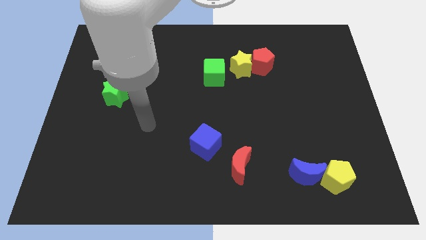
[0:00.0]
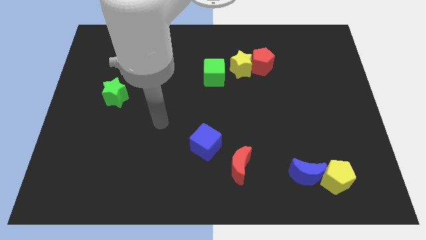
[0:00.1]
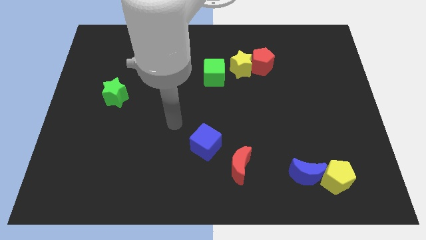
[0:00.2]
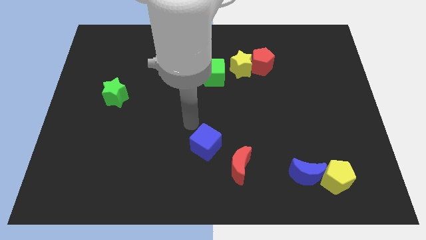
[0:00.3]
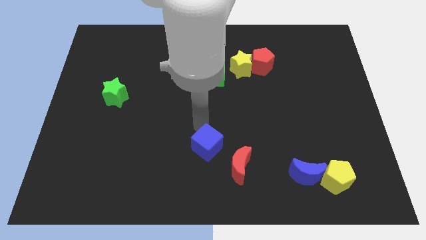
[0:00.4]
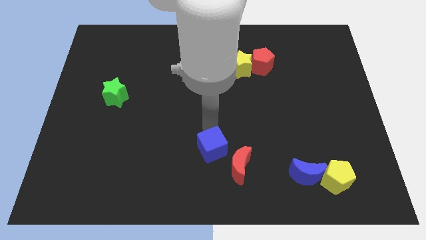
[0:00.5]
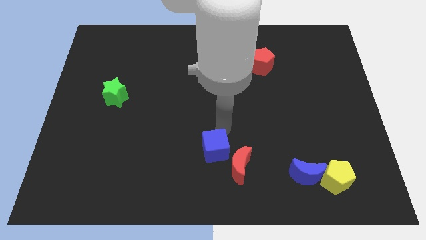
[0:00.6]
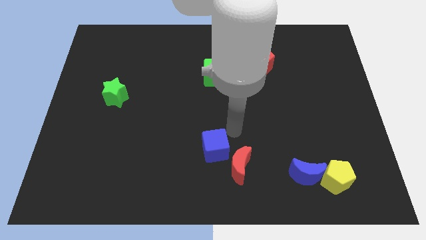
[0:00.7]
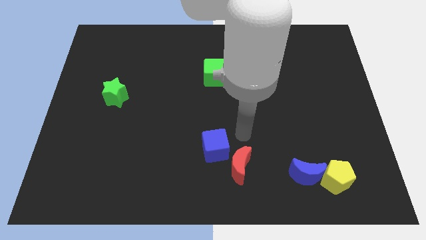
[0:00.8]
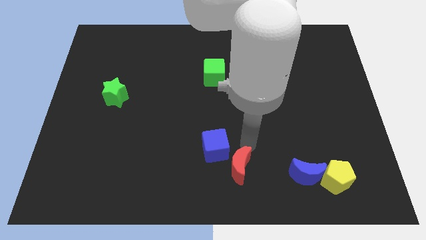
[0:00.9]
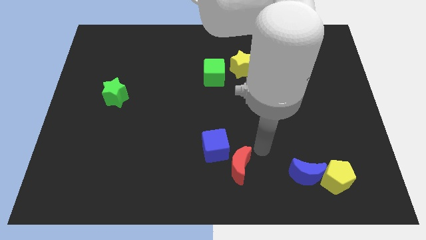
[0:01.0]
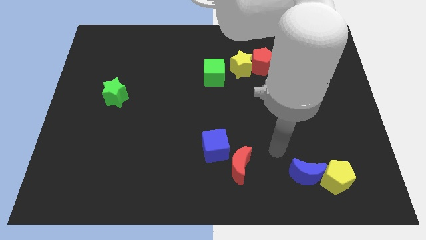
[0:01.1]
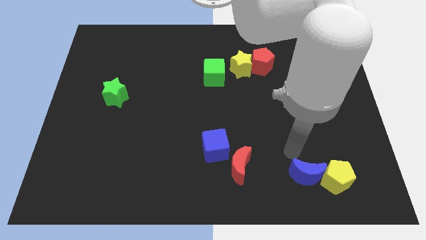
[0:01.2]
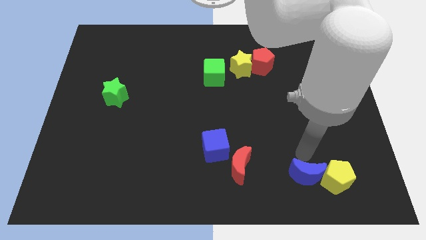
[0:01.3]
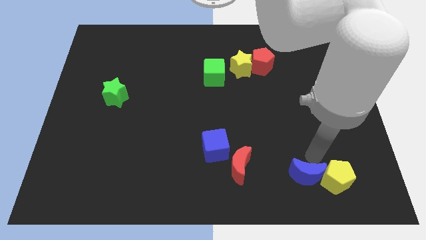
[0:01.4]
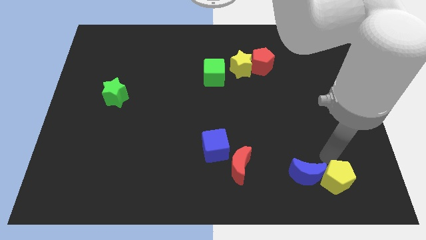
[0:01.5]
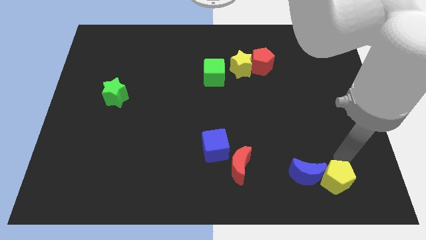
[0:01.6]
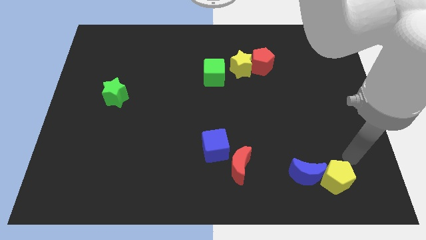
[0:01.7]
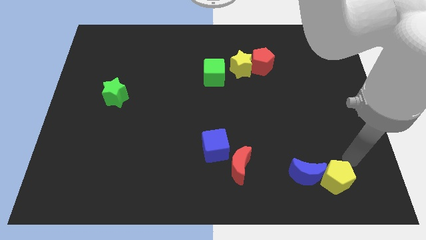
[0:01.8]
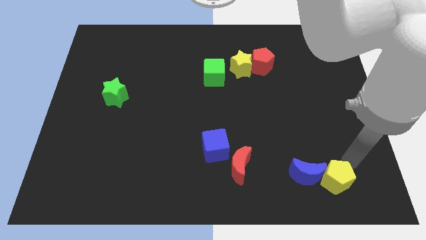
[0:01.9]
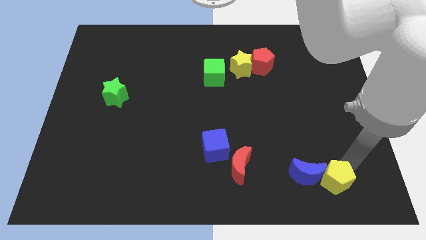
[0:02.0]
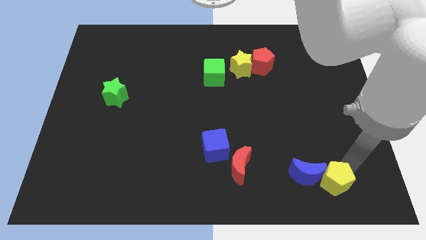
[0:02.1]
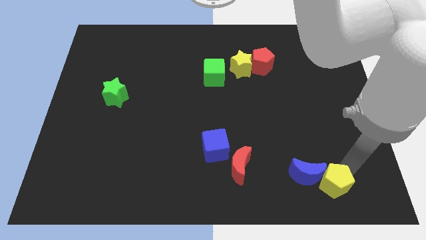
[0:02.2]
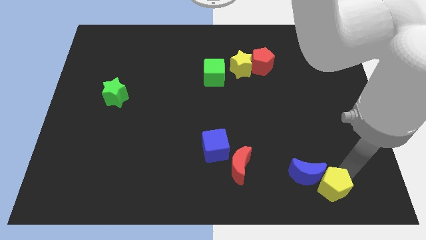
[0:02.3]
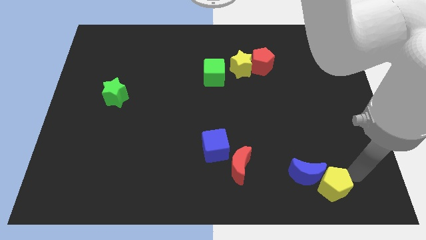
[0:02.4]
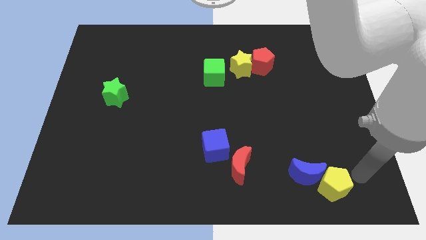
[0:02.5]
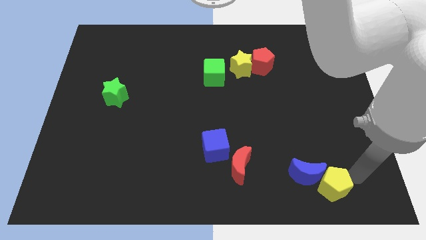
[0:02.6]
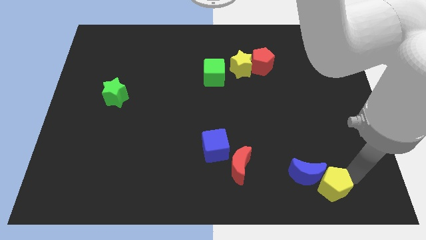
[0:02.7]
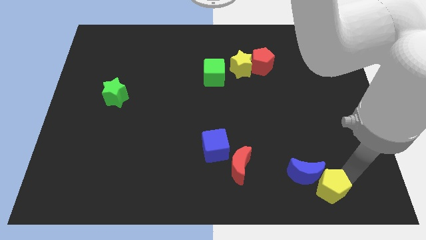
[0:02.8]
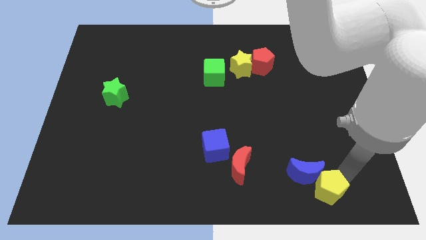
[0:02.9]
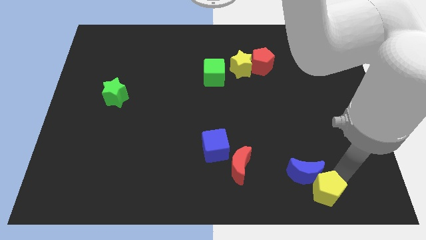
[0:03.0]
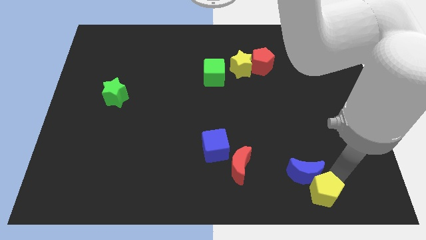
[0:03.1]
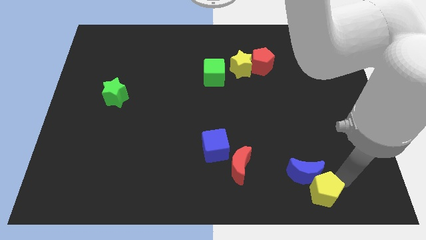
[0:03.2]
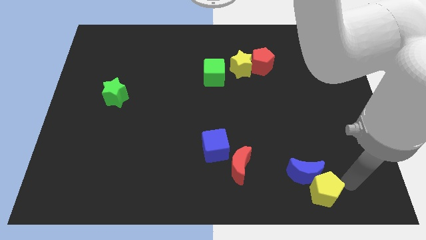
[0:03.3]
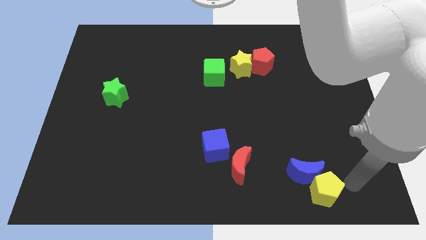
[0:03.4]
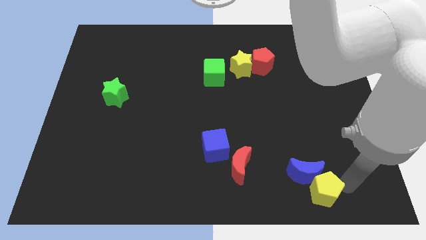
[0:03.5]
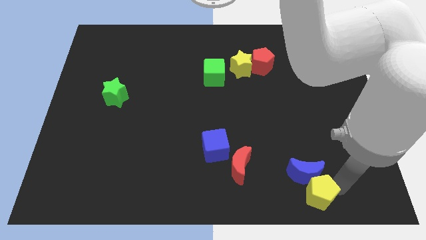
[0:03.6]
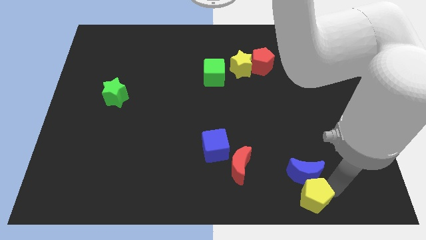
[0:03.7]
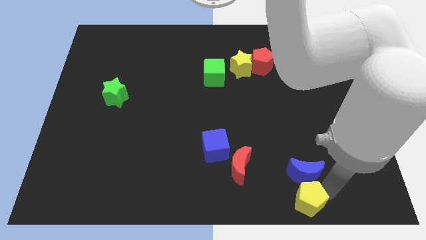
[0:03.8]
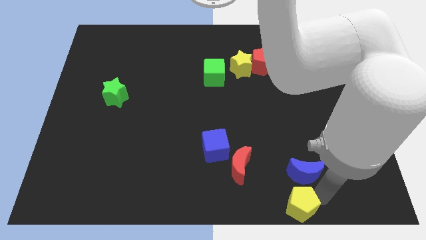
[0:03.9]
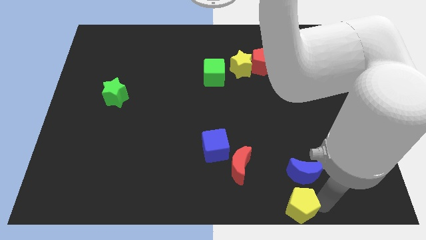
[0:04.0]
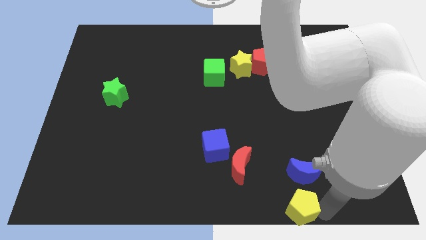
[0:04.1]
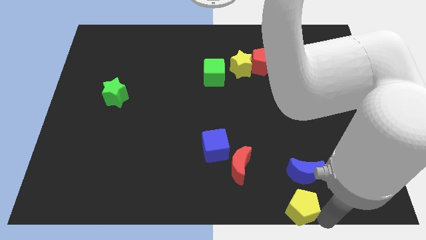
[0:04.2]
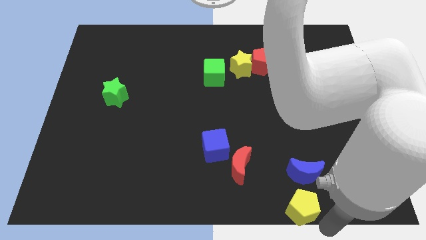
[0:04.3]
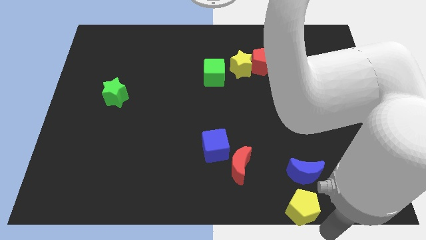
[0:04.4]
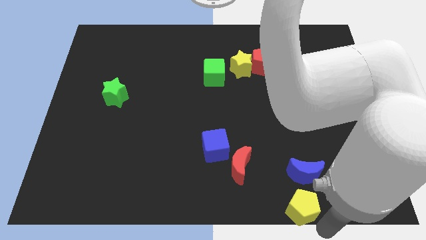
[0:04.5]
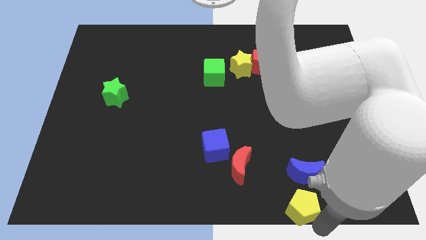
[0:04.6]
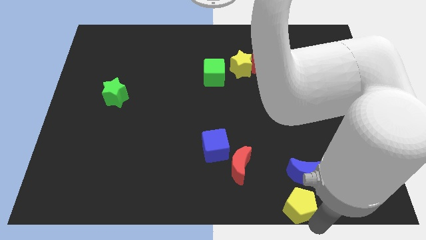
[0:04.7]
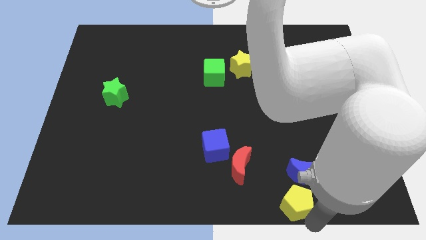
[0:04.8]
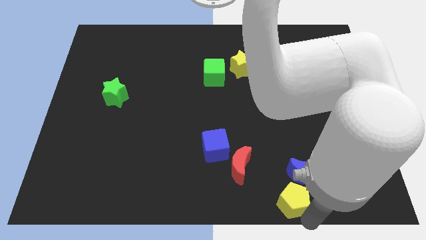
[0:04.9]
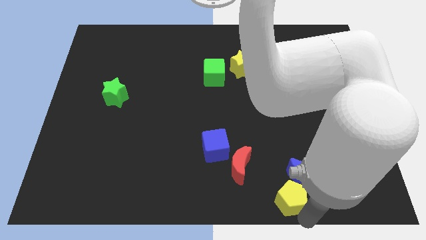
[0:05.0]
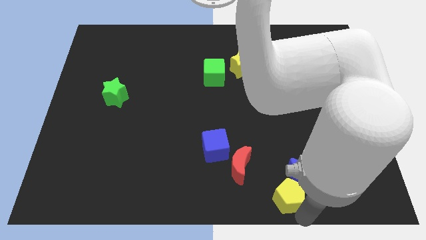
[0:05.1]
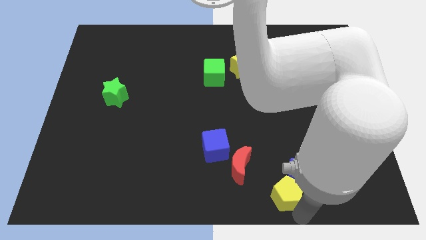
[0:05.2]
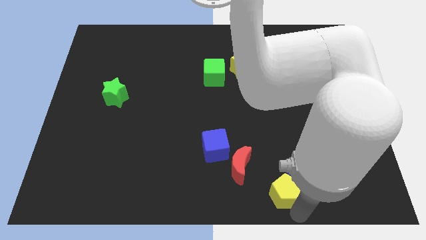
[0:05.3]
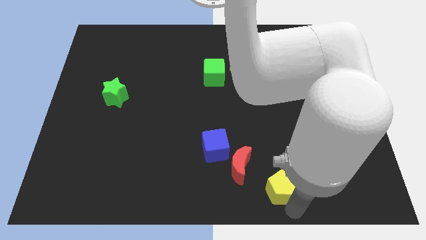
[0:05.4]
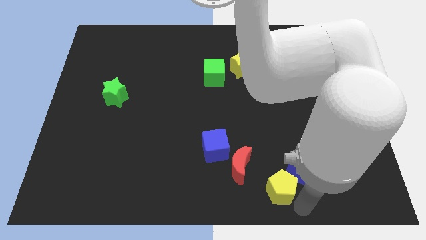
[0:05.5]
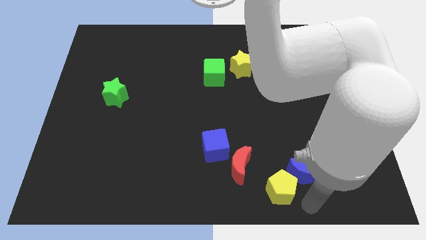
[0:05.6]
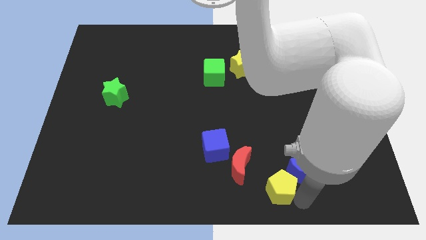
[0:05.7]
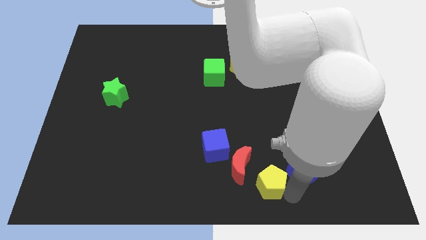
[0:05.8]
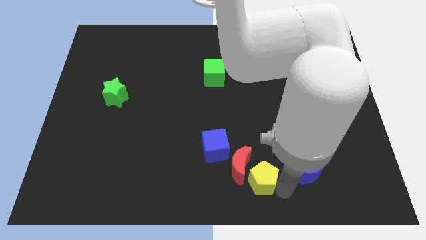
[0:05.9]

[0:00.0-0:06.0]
push the yellow pentagon close to the red moon

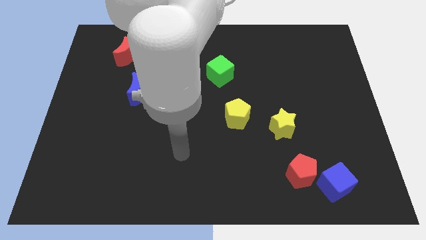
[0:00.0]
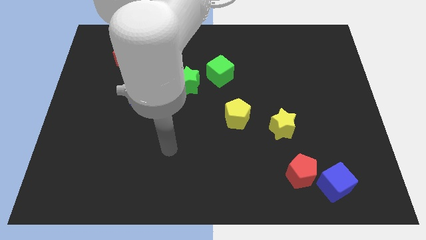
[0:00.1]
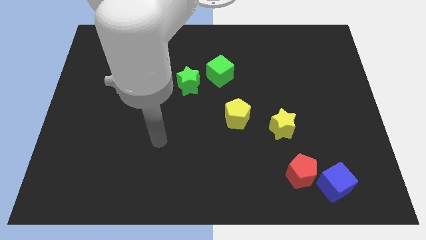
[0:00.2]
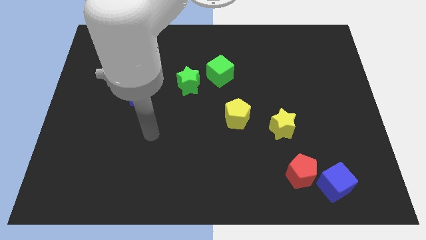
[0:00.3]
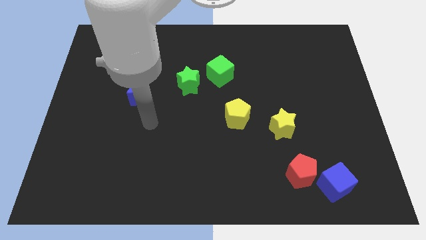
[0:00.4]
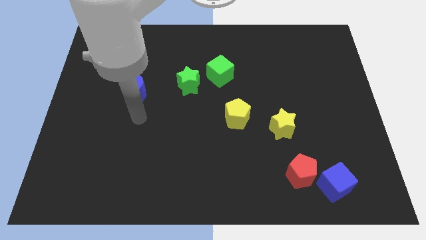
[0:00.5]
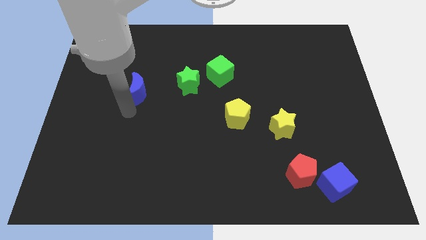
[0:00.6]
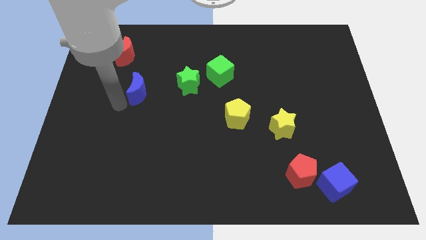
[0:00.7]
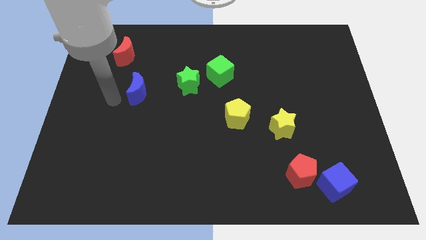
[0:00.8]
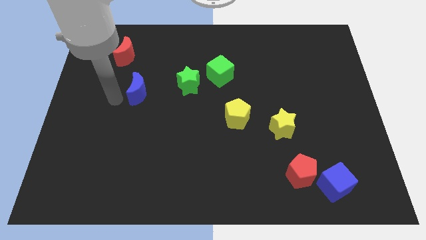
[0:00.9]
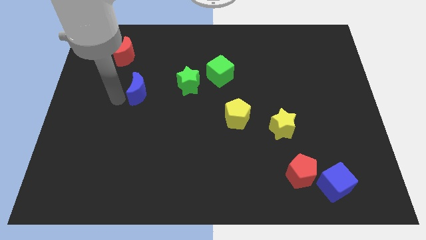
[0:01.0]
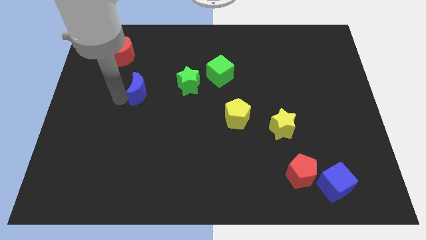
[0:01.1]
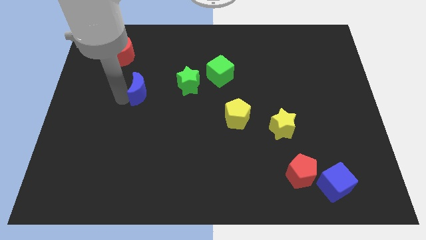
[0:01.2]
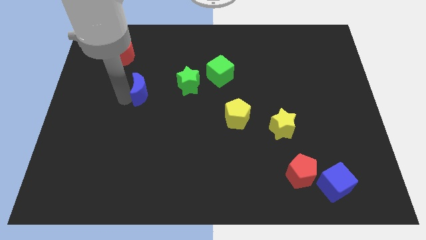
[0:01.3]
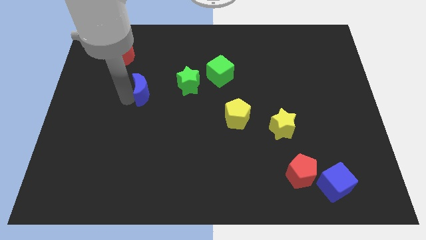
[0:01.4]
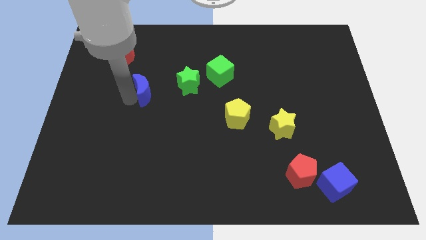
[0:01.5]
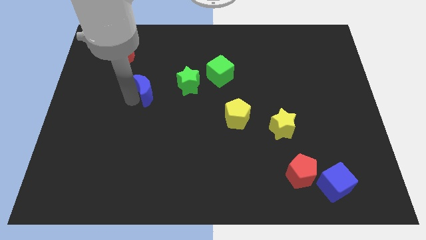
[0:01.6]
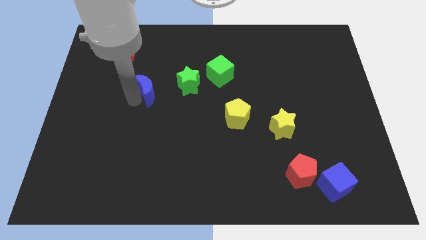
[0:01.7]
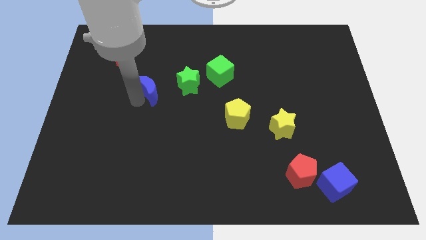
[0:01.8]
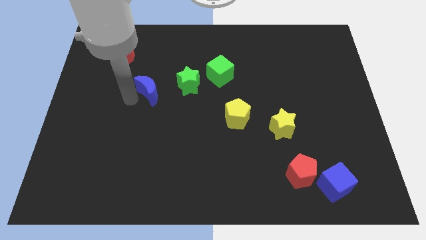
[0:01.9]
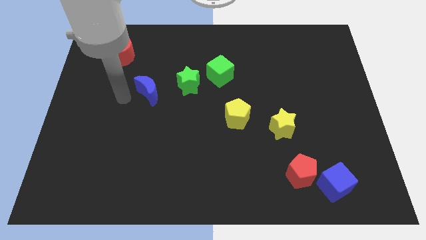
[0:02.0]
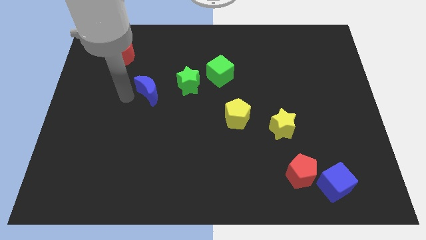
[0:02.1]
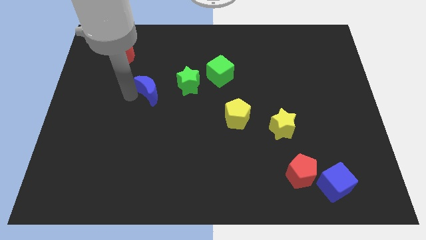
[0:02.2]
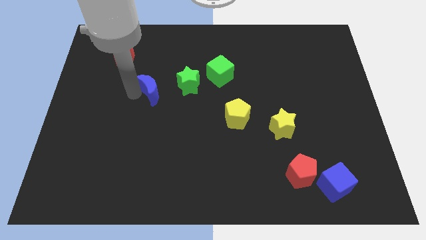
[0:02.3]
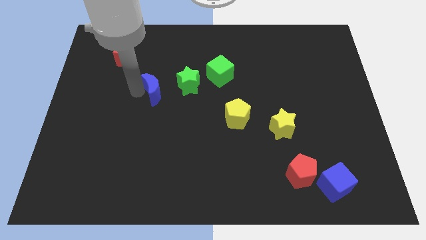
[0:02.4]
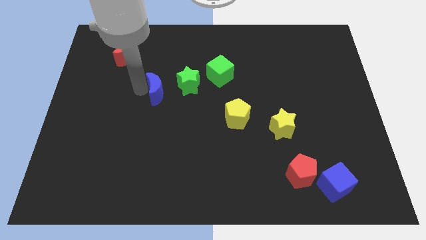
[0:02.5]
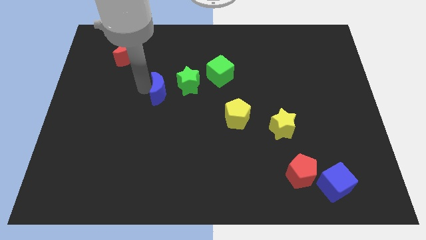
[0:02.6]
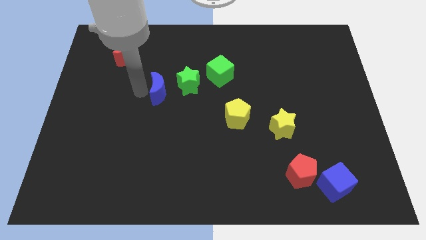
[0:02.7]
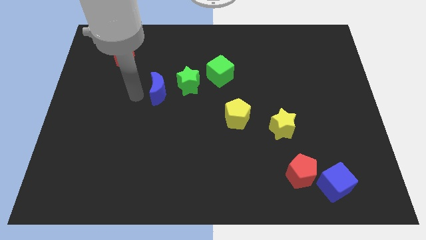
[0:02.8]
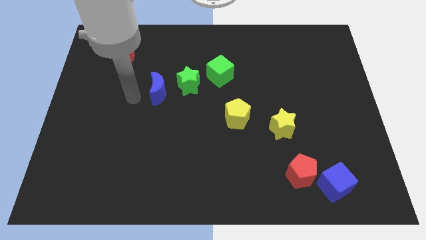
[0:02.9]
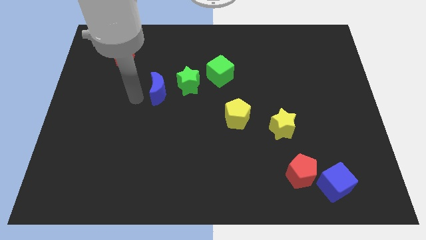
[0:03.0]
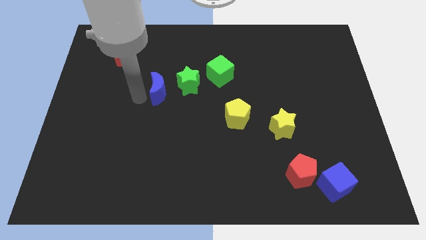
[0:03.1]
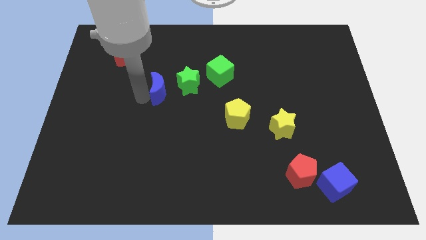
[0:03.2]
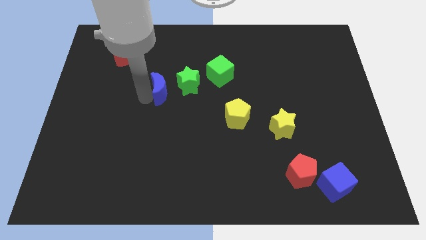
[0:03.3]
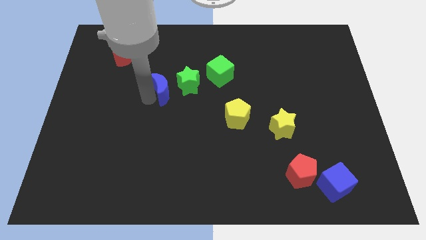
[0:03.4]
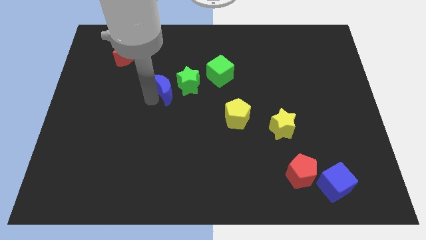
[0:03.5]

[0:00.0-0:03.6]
slide the blue moon towards the green star
